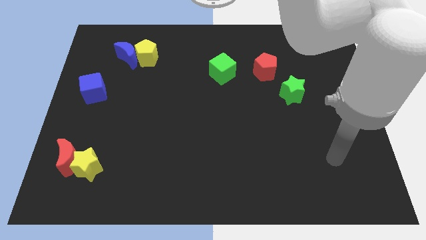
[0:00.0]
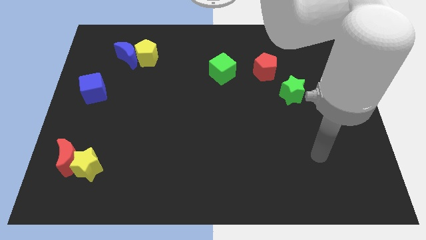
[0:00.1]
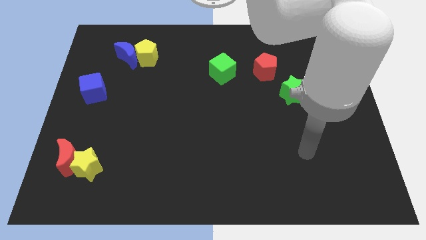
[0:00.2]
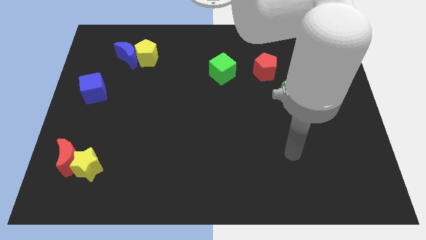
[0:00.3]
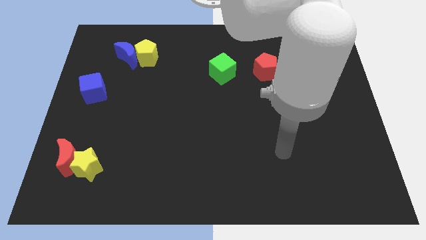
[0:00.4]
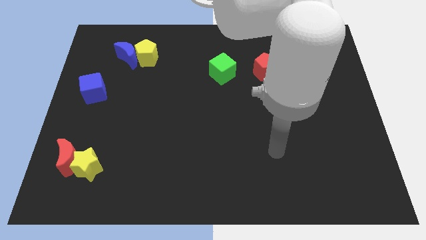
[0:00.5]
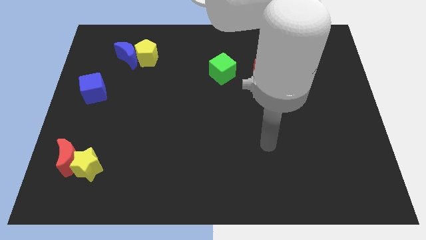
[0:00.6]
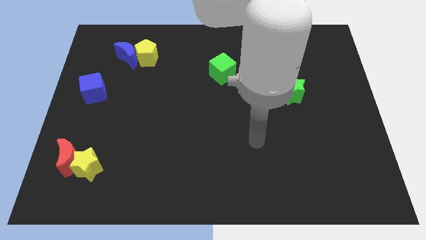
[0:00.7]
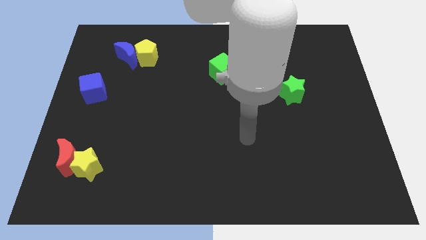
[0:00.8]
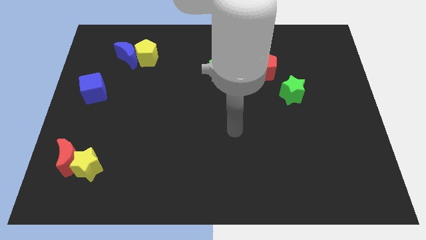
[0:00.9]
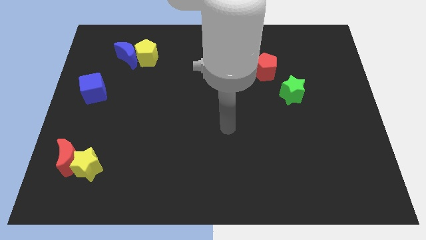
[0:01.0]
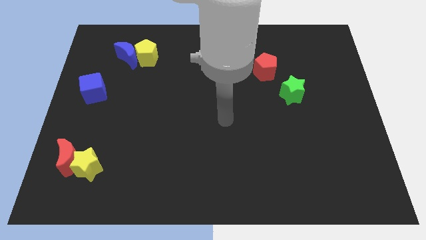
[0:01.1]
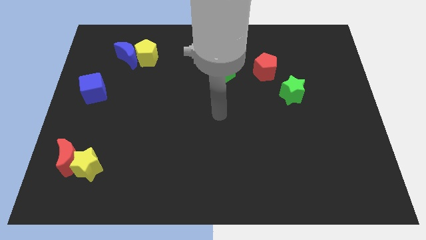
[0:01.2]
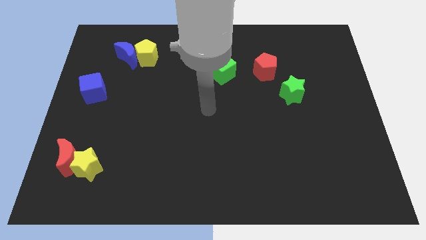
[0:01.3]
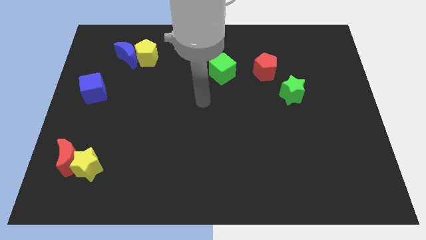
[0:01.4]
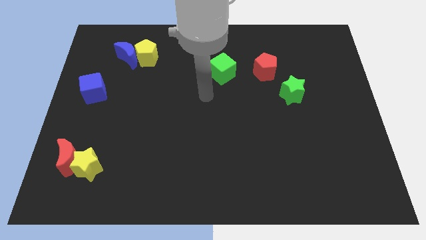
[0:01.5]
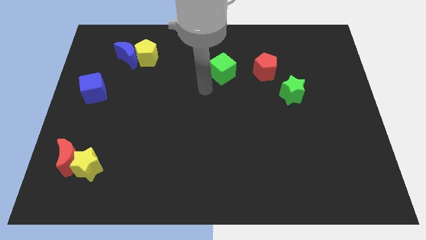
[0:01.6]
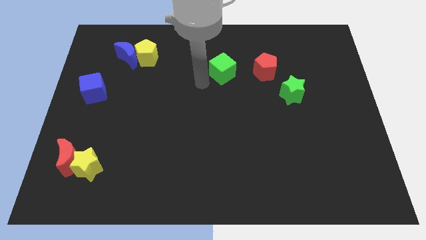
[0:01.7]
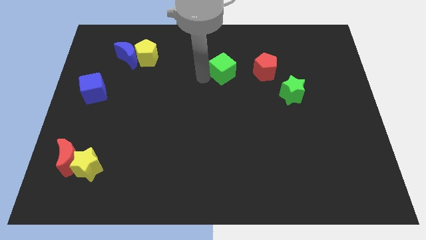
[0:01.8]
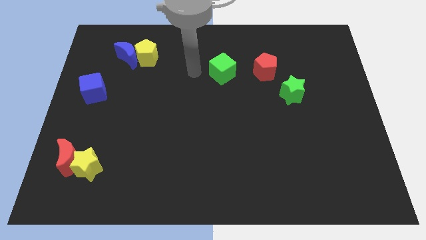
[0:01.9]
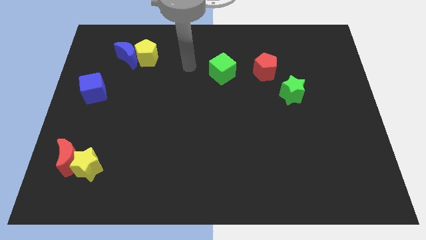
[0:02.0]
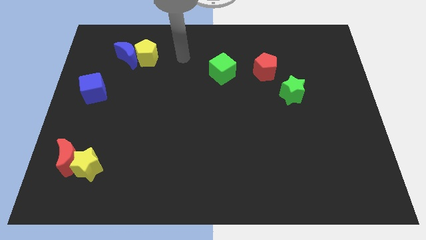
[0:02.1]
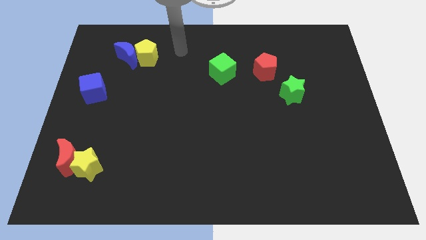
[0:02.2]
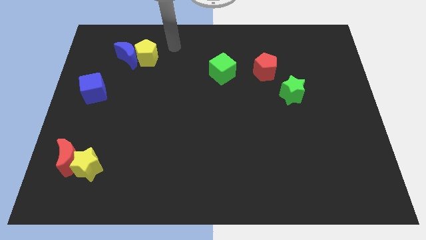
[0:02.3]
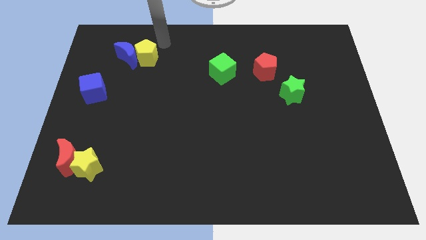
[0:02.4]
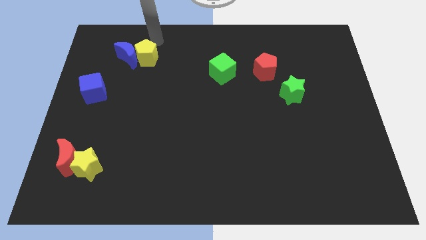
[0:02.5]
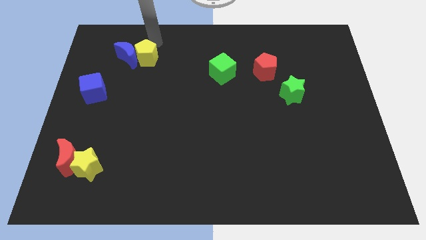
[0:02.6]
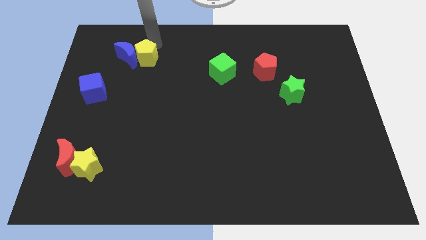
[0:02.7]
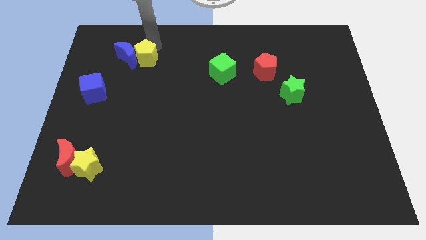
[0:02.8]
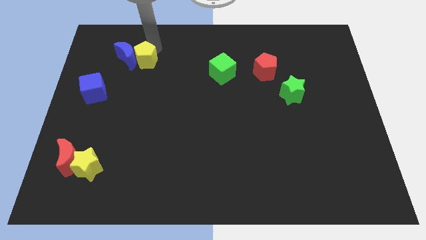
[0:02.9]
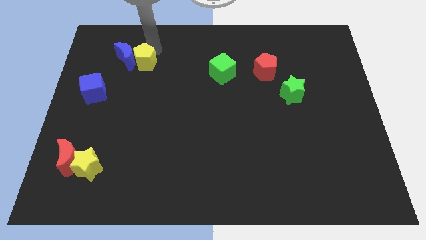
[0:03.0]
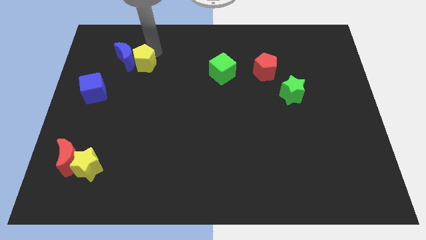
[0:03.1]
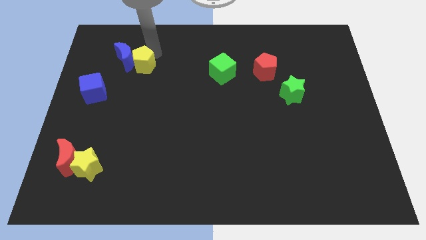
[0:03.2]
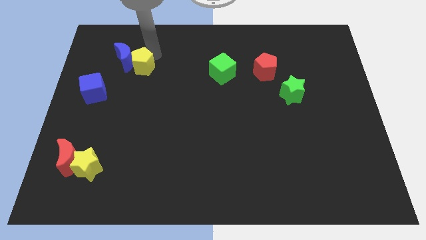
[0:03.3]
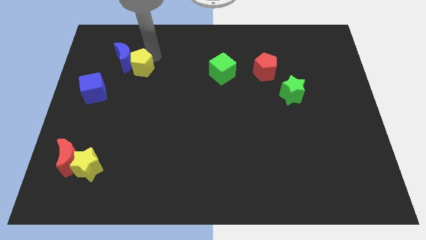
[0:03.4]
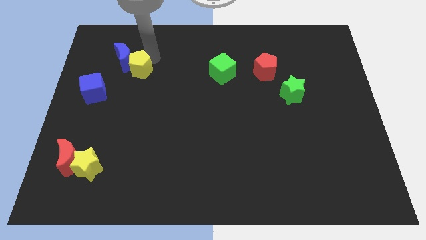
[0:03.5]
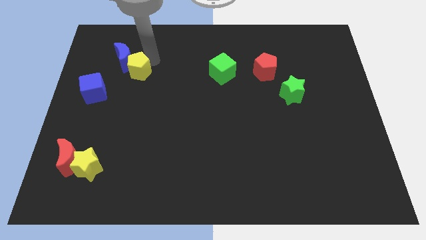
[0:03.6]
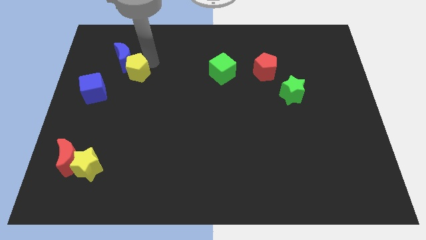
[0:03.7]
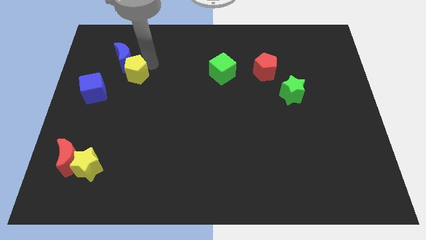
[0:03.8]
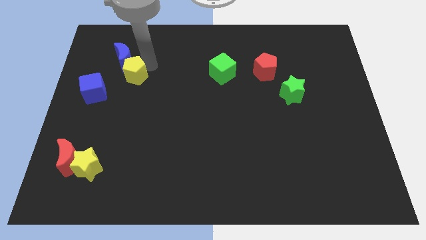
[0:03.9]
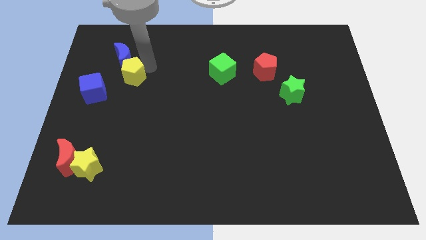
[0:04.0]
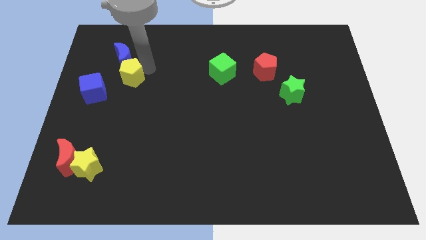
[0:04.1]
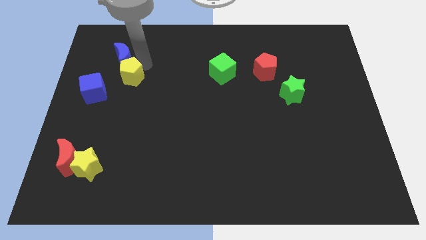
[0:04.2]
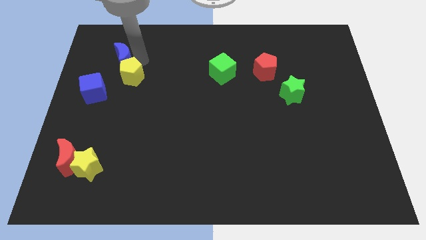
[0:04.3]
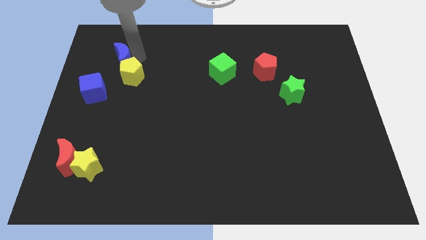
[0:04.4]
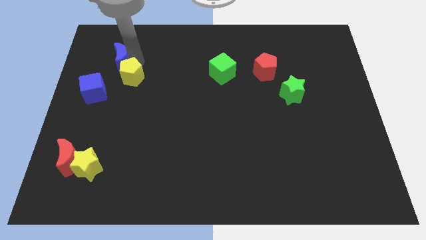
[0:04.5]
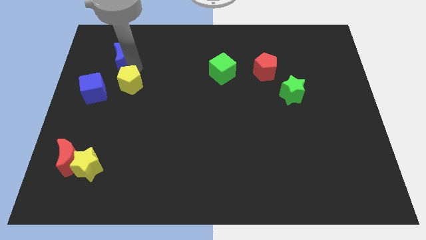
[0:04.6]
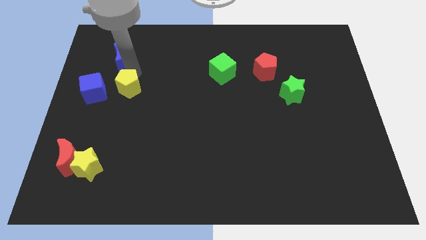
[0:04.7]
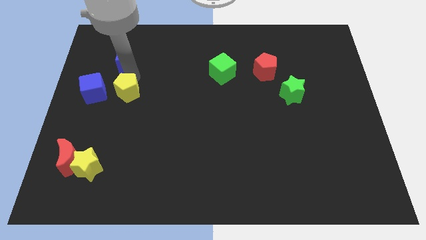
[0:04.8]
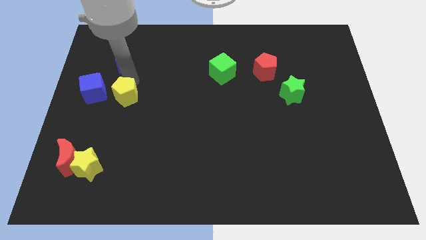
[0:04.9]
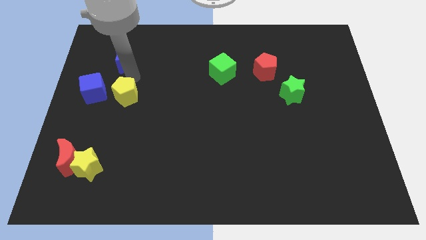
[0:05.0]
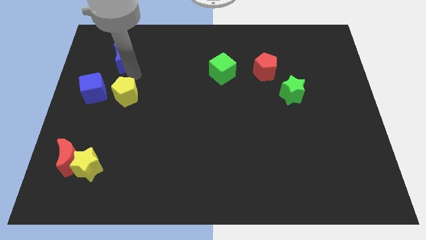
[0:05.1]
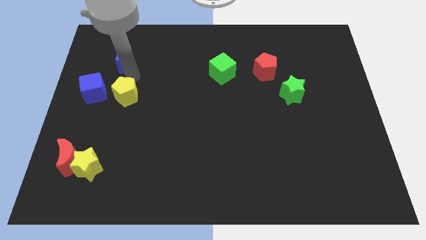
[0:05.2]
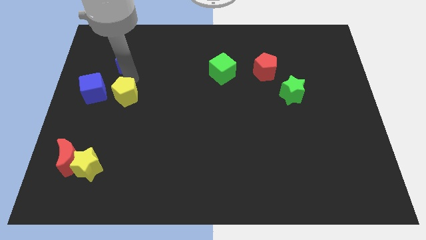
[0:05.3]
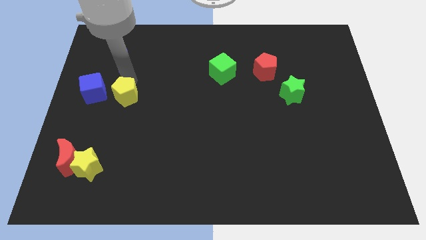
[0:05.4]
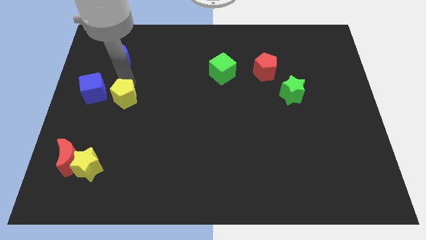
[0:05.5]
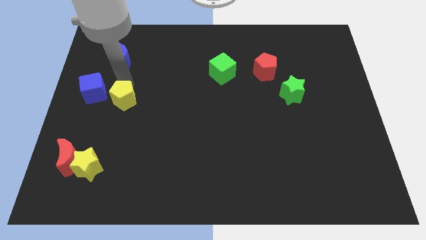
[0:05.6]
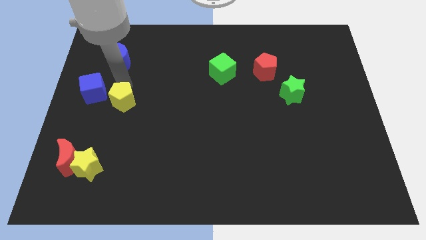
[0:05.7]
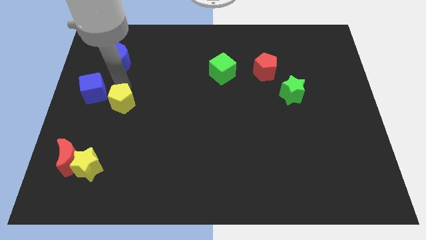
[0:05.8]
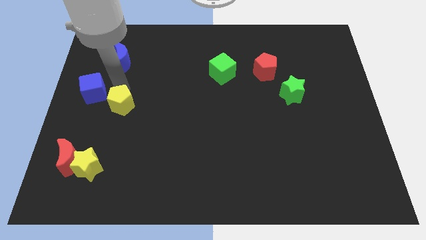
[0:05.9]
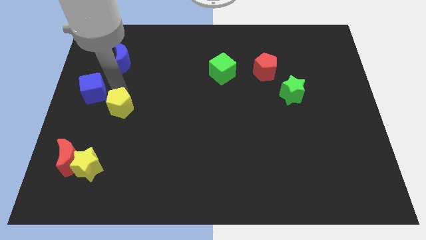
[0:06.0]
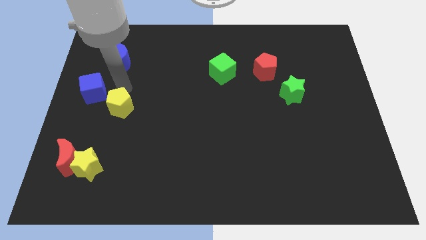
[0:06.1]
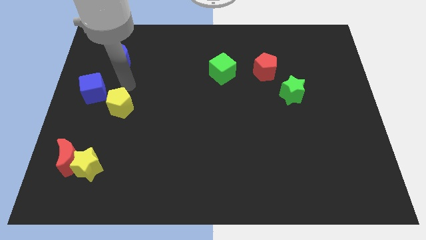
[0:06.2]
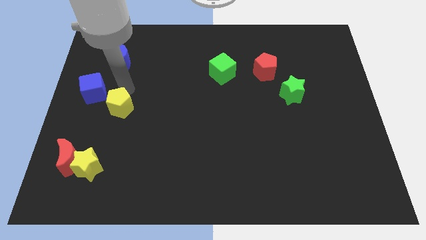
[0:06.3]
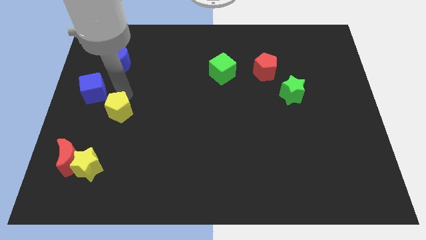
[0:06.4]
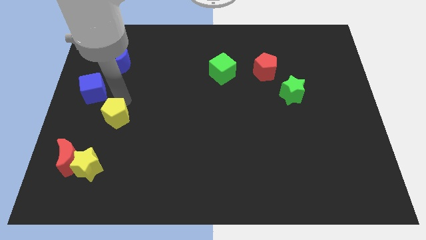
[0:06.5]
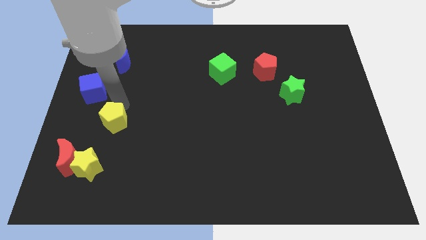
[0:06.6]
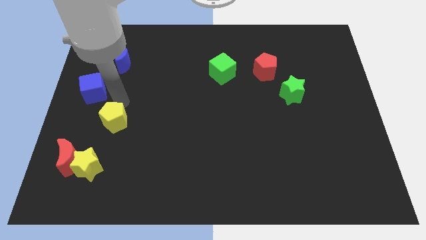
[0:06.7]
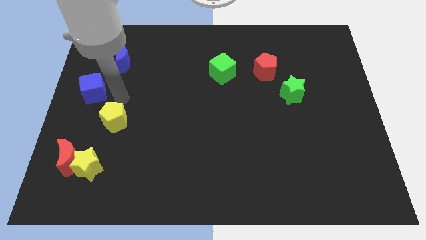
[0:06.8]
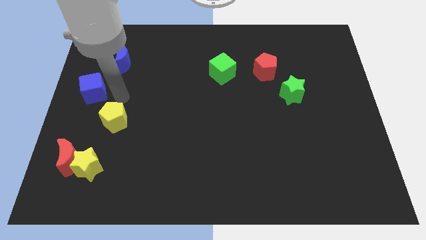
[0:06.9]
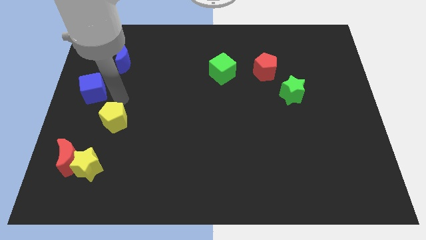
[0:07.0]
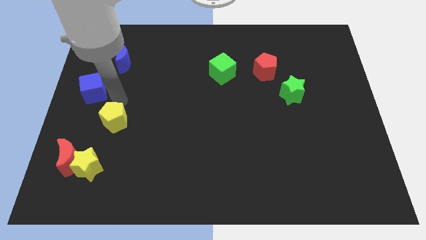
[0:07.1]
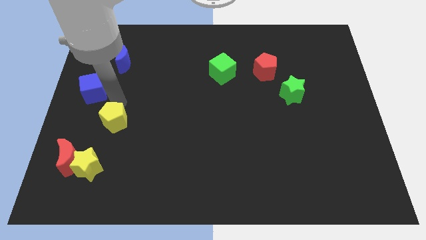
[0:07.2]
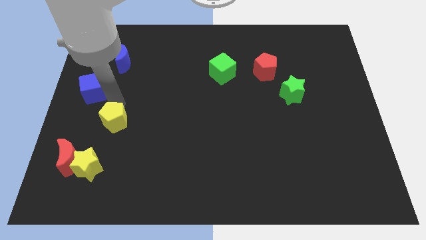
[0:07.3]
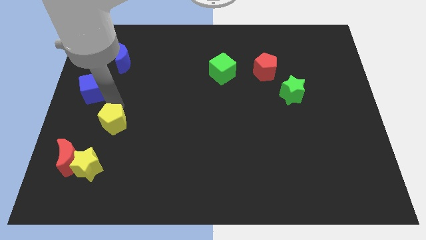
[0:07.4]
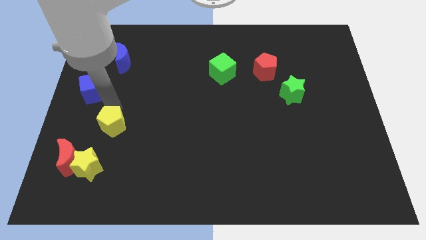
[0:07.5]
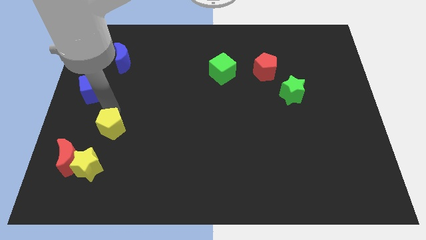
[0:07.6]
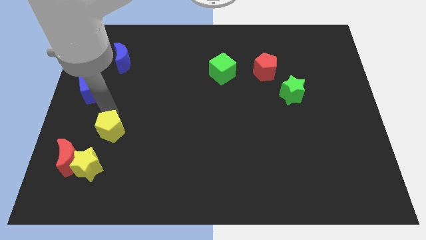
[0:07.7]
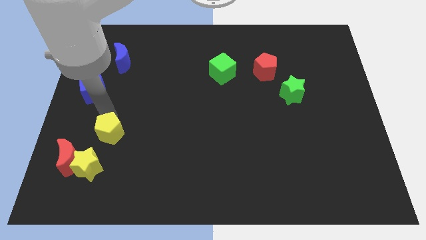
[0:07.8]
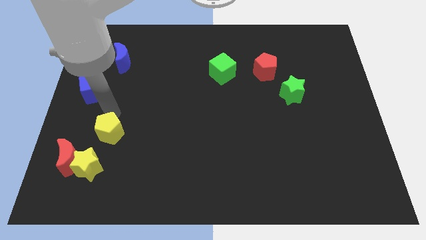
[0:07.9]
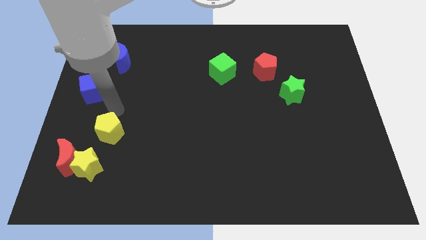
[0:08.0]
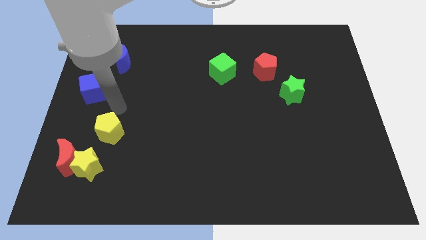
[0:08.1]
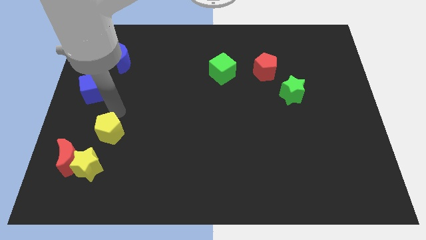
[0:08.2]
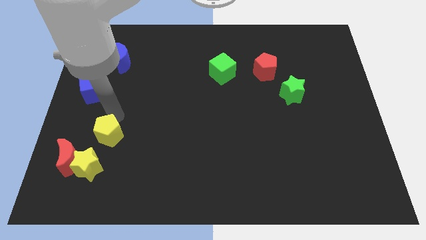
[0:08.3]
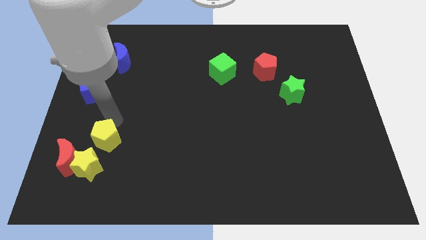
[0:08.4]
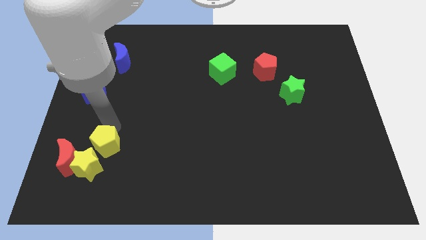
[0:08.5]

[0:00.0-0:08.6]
slide the yellow pentagon next to the yellow star
